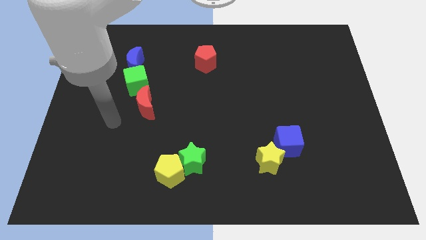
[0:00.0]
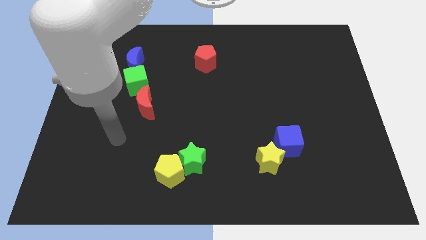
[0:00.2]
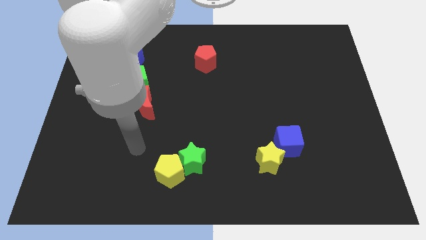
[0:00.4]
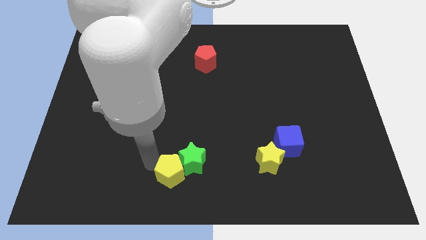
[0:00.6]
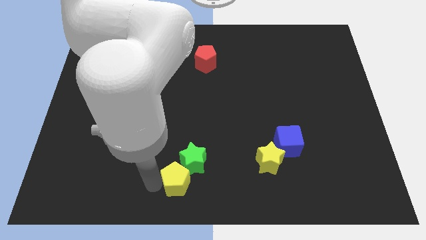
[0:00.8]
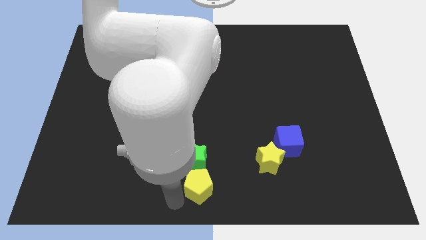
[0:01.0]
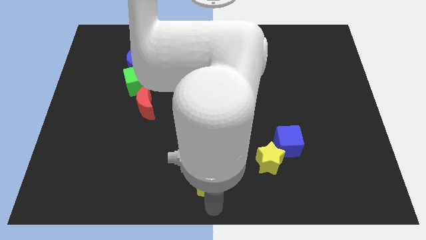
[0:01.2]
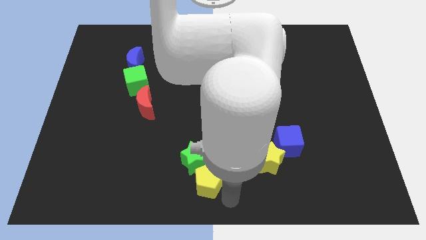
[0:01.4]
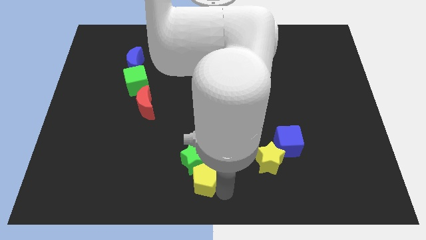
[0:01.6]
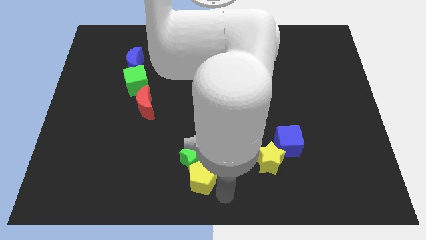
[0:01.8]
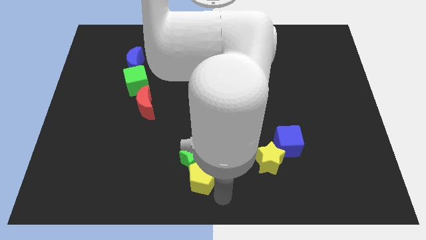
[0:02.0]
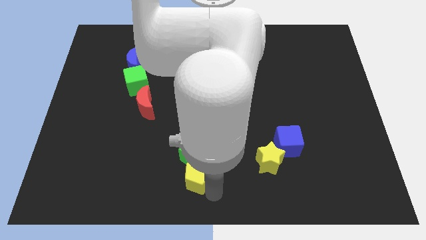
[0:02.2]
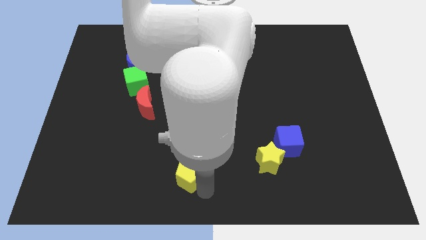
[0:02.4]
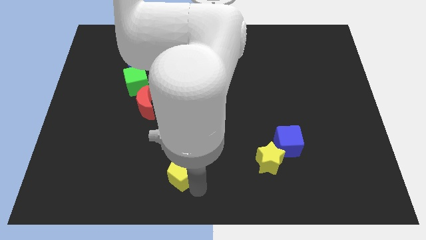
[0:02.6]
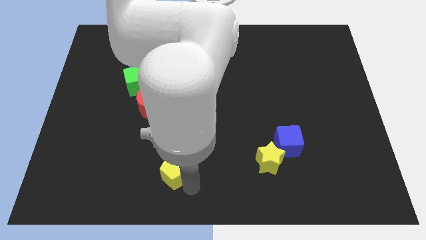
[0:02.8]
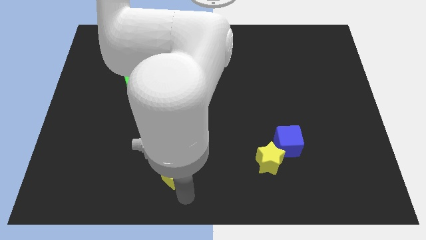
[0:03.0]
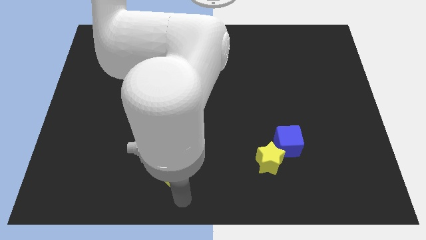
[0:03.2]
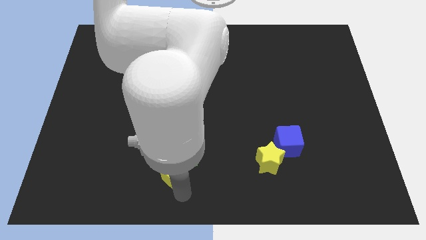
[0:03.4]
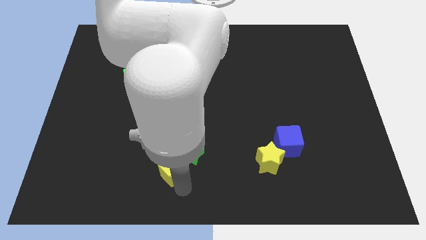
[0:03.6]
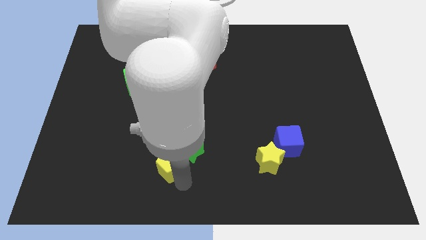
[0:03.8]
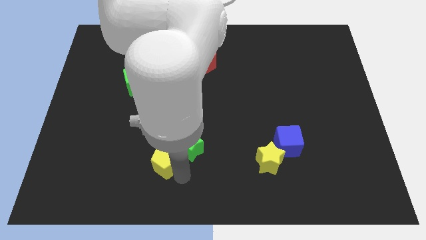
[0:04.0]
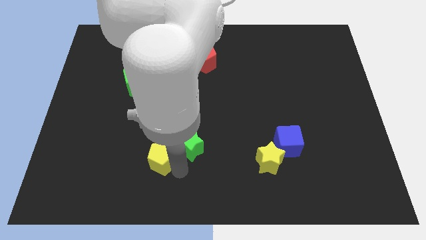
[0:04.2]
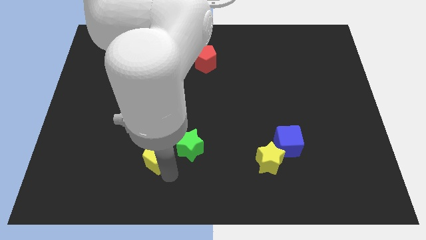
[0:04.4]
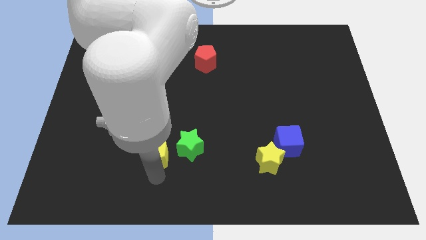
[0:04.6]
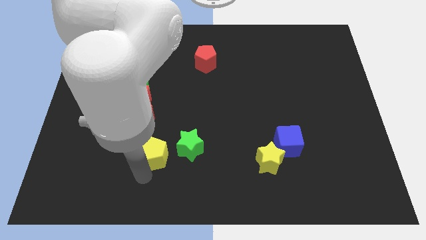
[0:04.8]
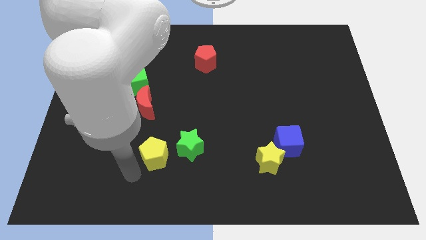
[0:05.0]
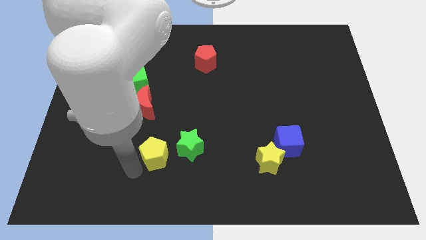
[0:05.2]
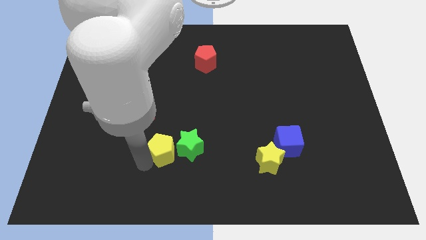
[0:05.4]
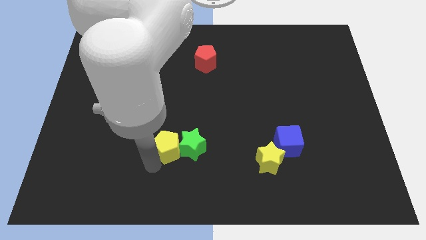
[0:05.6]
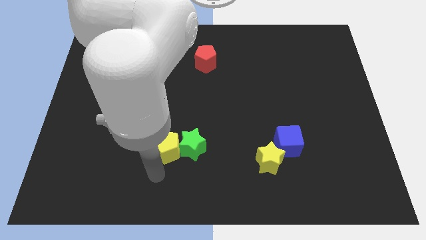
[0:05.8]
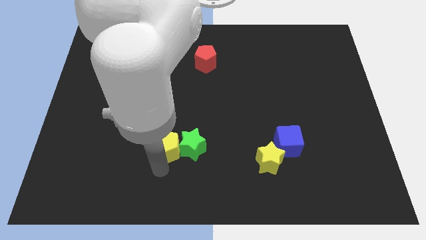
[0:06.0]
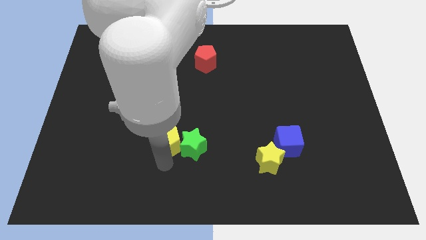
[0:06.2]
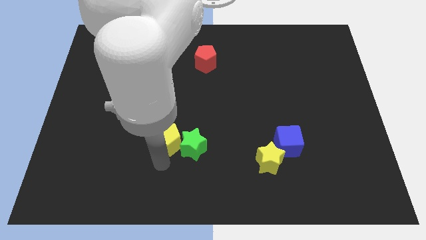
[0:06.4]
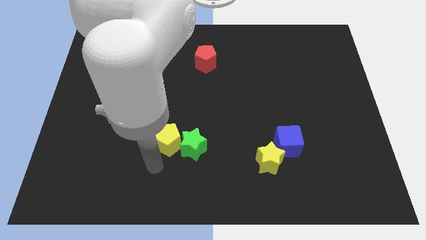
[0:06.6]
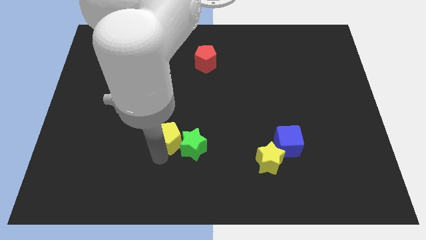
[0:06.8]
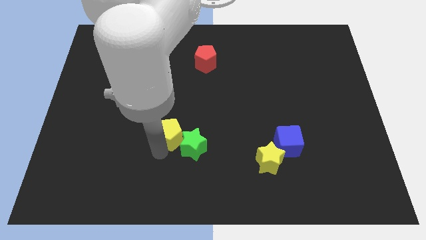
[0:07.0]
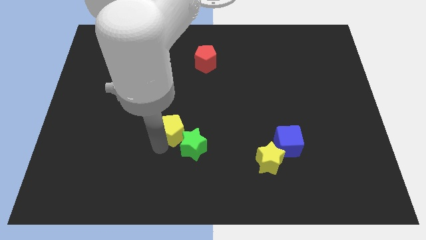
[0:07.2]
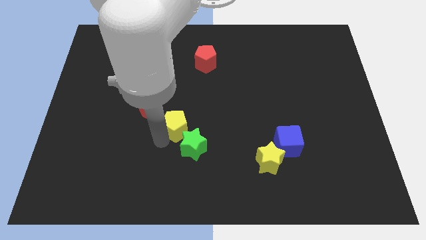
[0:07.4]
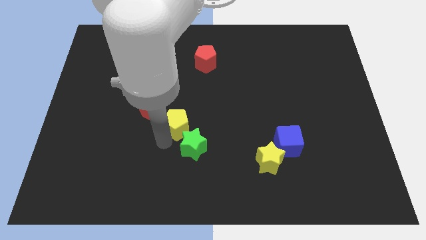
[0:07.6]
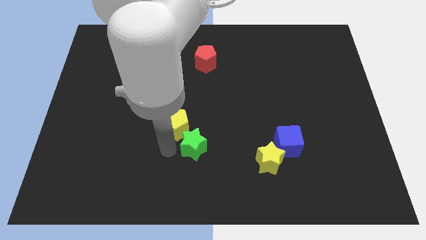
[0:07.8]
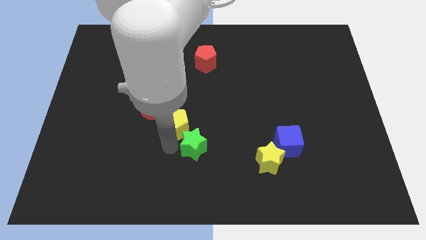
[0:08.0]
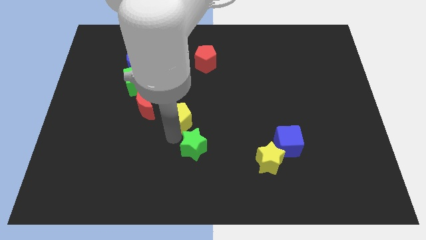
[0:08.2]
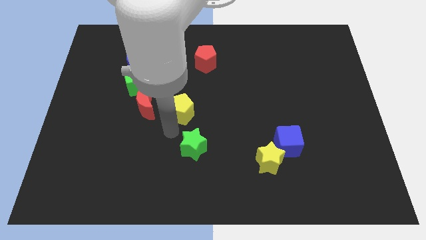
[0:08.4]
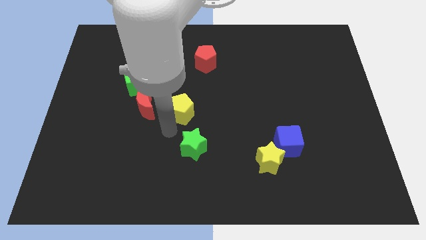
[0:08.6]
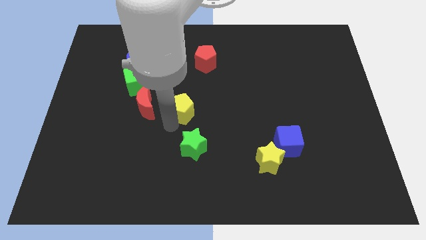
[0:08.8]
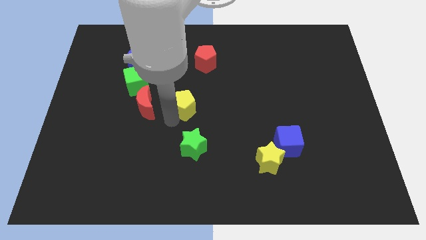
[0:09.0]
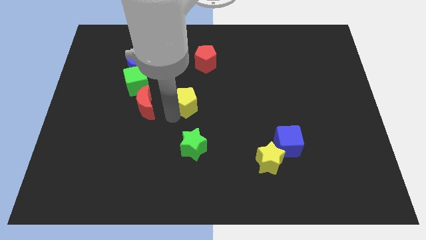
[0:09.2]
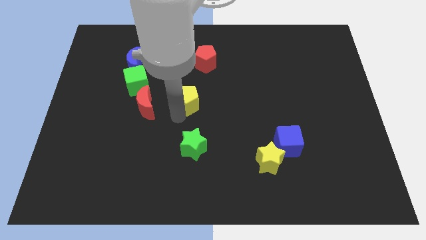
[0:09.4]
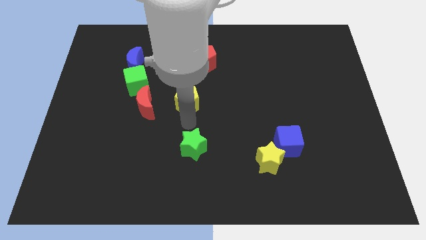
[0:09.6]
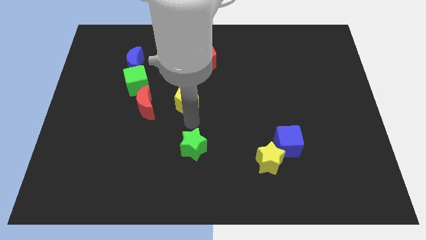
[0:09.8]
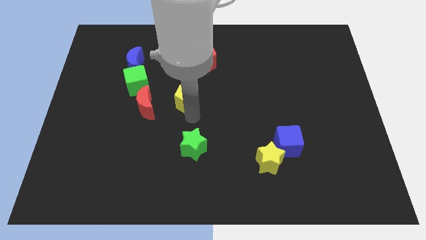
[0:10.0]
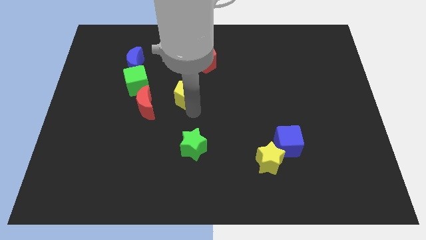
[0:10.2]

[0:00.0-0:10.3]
move the yellow pentagon up

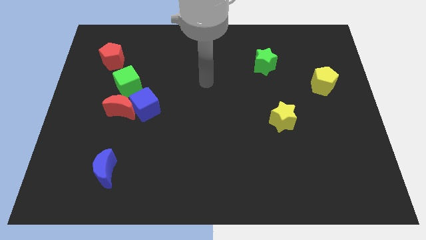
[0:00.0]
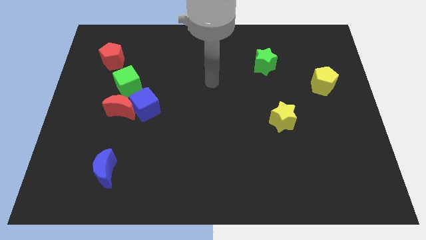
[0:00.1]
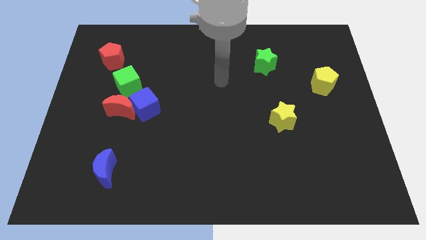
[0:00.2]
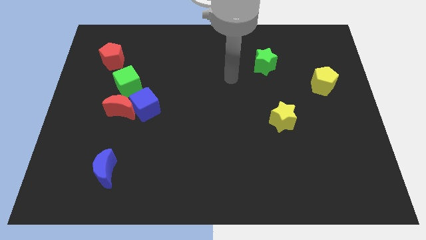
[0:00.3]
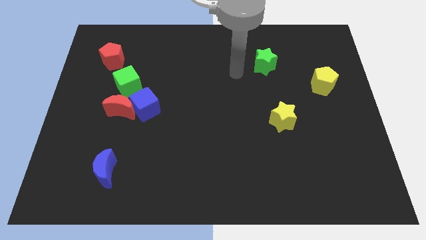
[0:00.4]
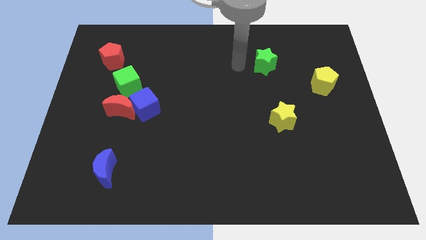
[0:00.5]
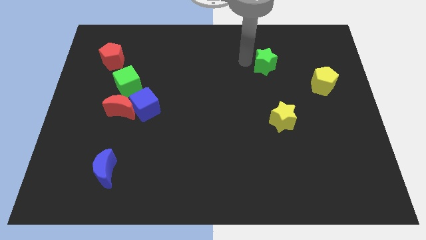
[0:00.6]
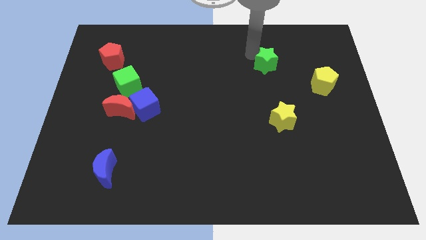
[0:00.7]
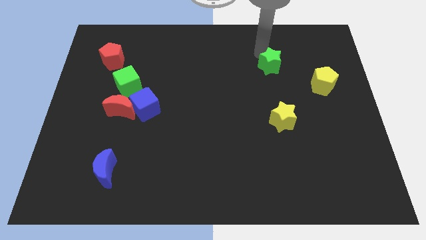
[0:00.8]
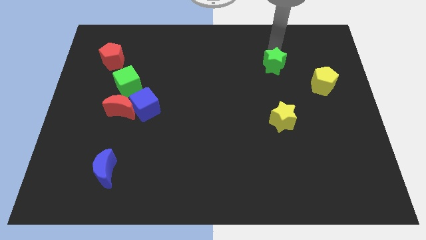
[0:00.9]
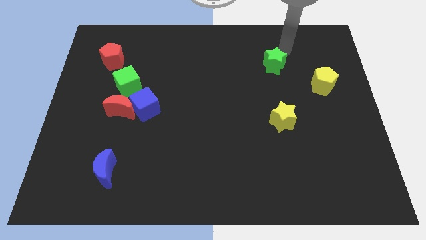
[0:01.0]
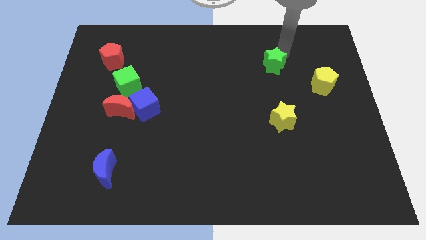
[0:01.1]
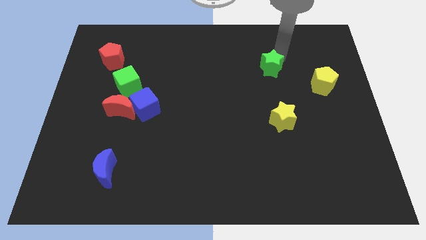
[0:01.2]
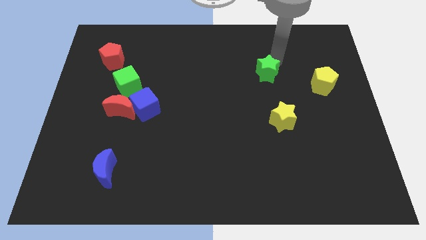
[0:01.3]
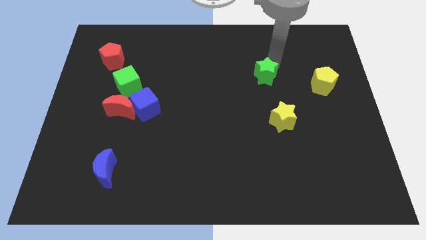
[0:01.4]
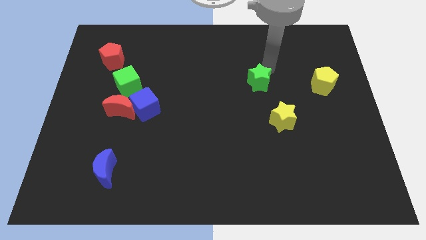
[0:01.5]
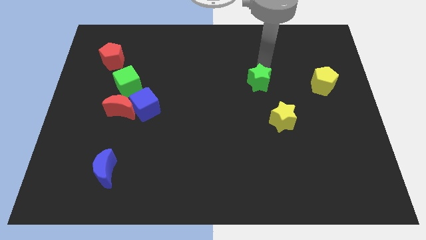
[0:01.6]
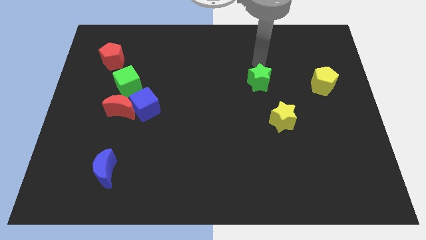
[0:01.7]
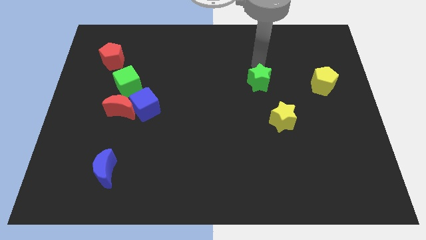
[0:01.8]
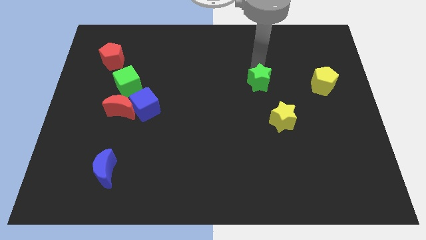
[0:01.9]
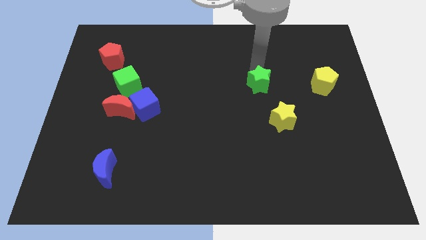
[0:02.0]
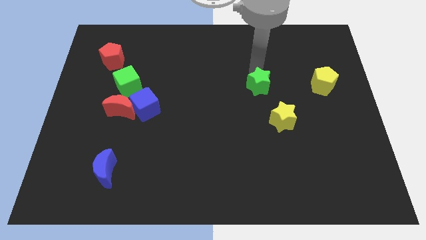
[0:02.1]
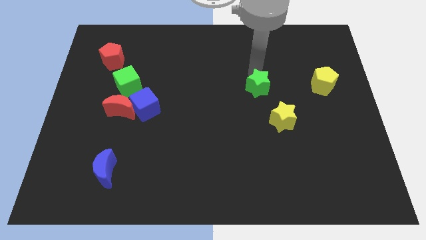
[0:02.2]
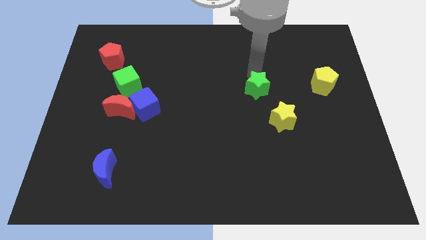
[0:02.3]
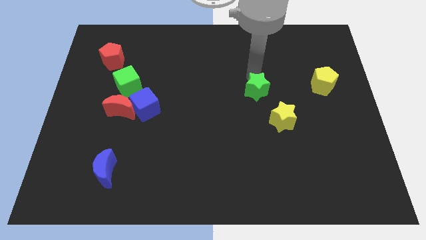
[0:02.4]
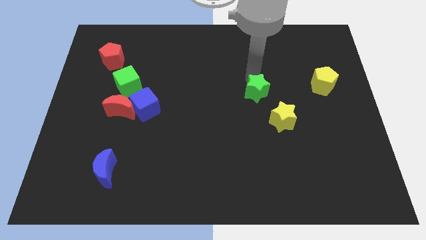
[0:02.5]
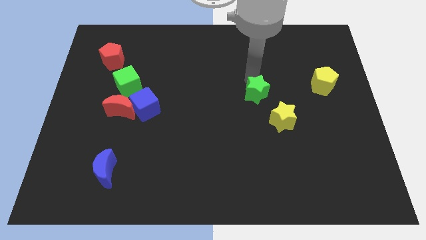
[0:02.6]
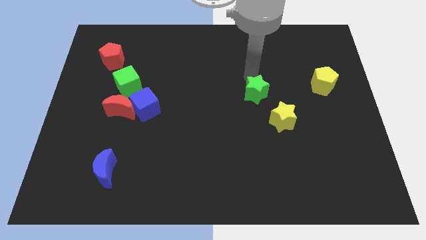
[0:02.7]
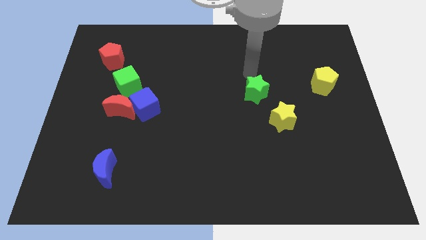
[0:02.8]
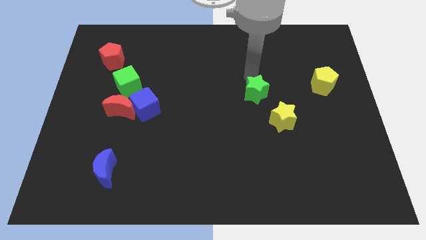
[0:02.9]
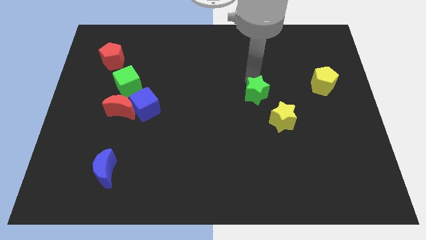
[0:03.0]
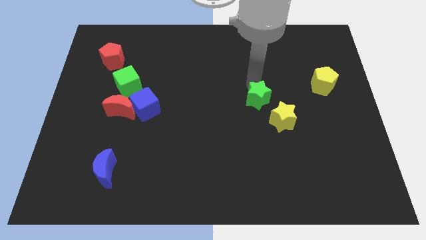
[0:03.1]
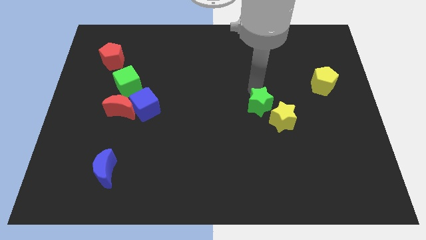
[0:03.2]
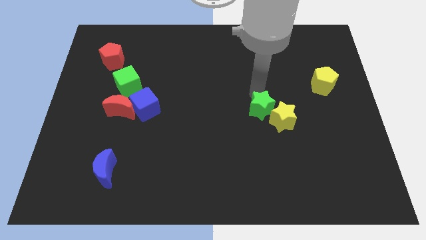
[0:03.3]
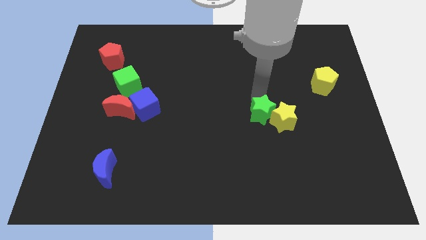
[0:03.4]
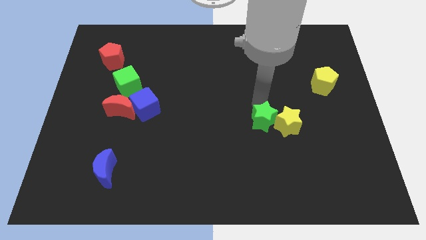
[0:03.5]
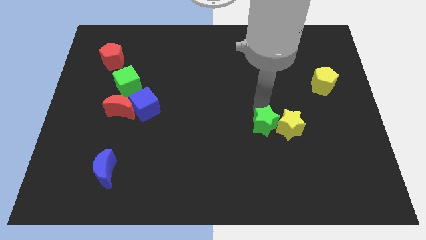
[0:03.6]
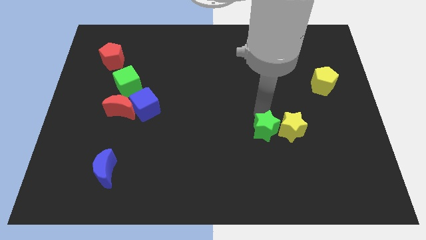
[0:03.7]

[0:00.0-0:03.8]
slide the green star down
